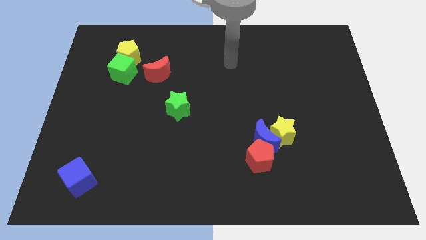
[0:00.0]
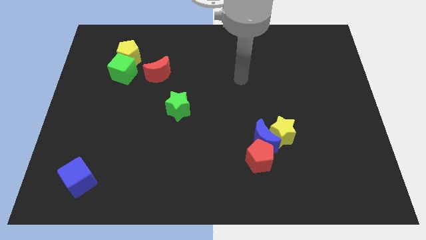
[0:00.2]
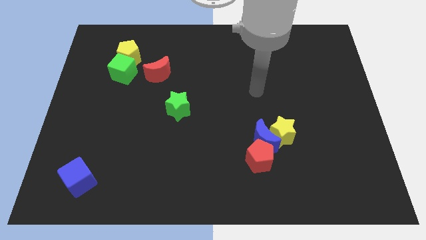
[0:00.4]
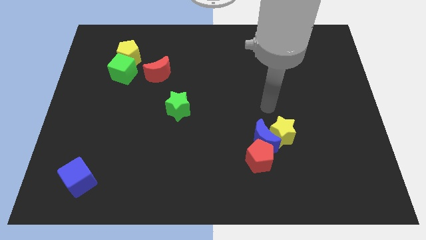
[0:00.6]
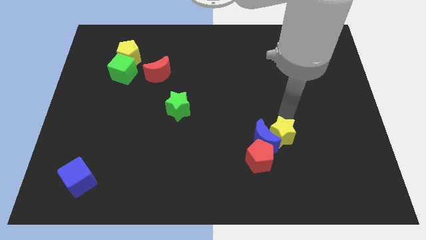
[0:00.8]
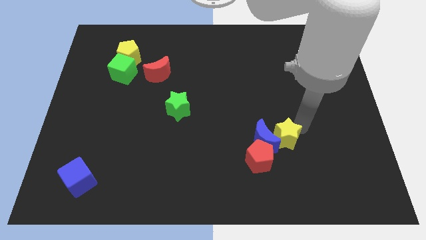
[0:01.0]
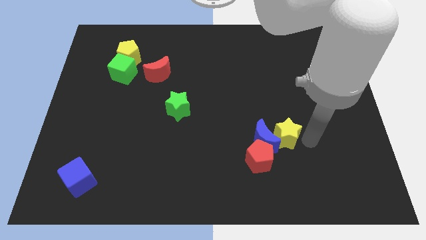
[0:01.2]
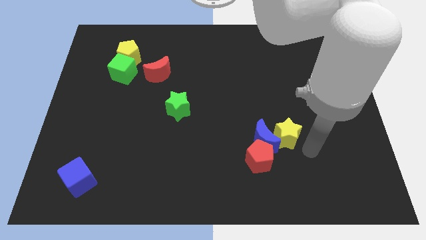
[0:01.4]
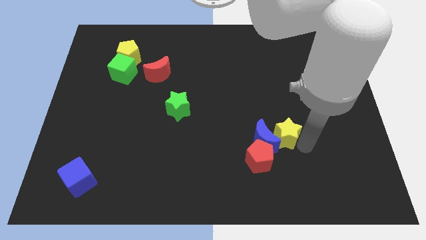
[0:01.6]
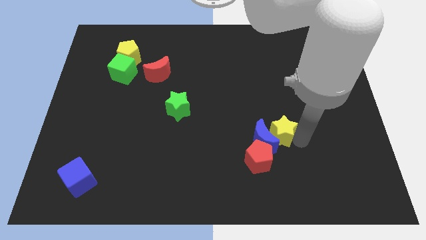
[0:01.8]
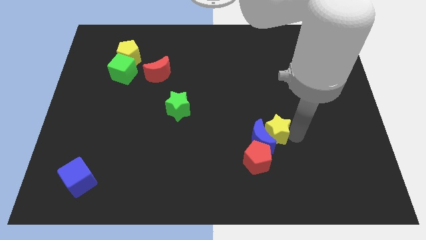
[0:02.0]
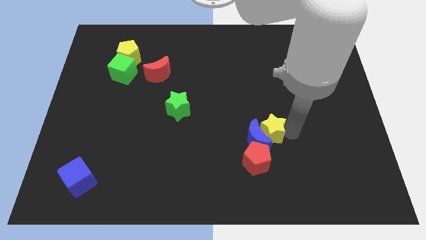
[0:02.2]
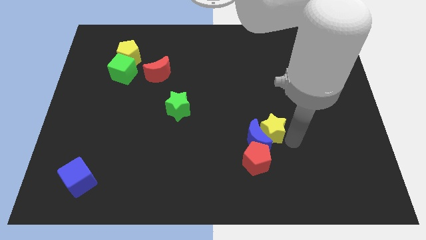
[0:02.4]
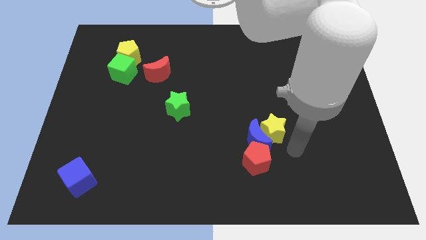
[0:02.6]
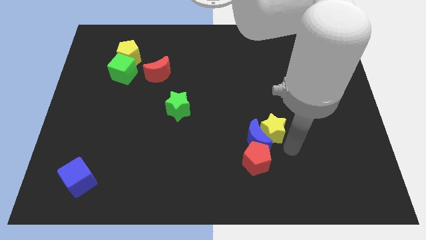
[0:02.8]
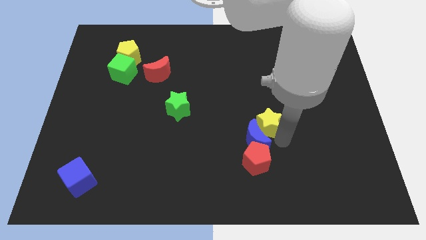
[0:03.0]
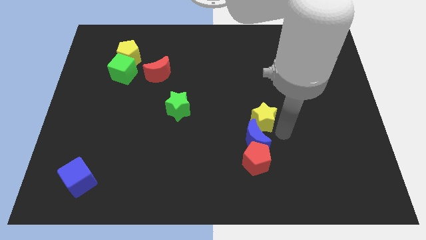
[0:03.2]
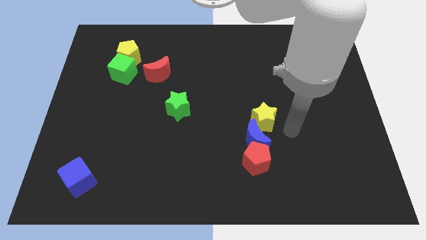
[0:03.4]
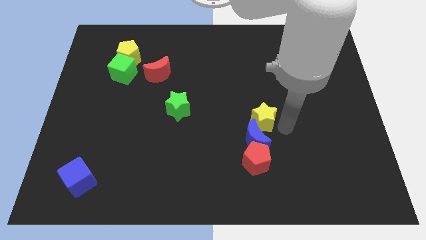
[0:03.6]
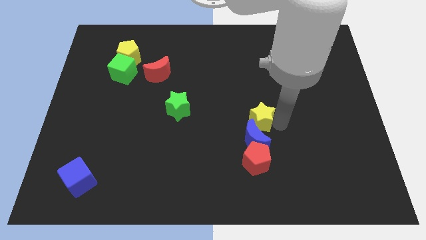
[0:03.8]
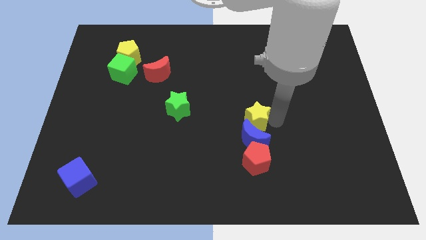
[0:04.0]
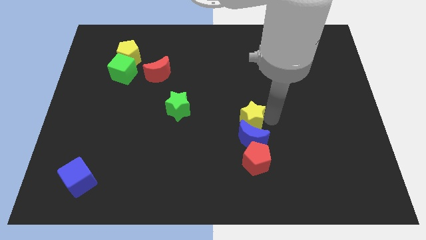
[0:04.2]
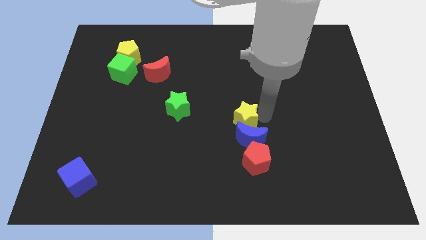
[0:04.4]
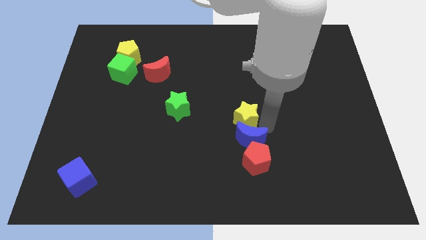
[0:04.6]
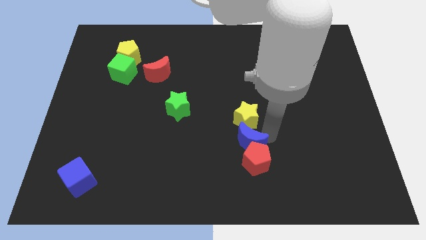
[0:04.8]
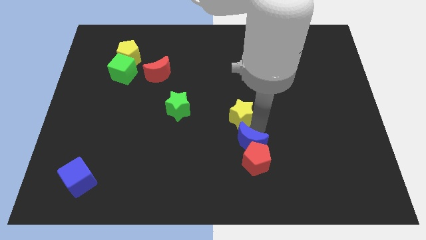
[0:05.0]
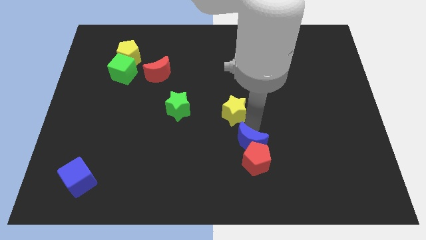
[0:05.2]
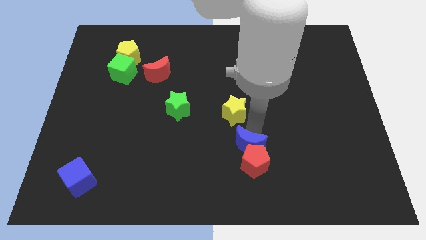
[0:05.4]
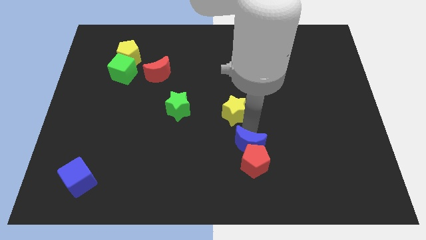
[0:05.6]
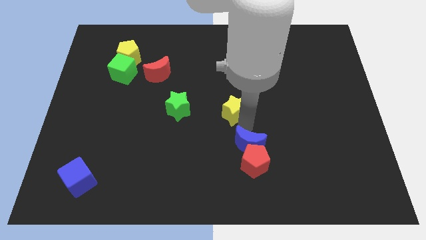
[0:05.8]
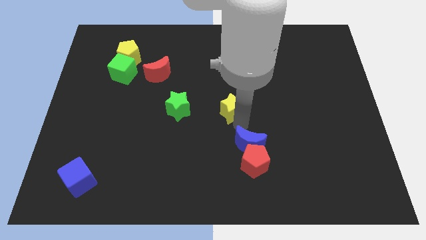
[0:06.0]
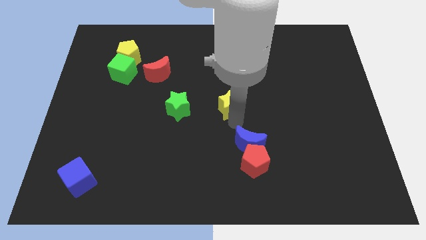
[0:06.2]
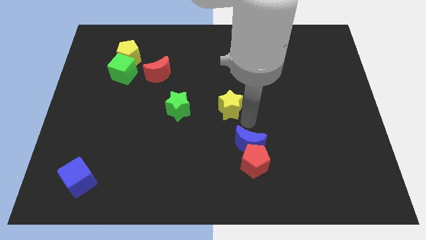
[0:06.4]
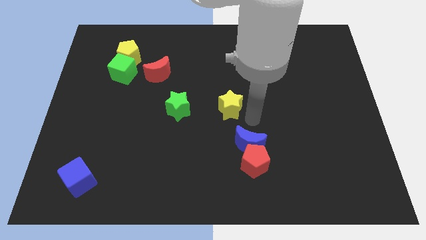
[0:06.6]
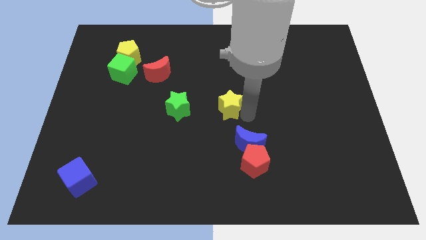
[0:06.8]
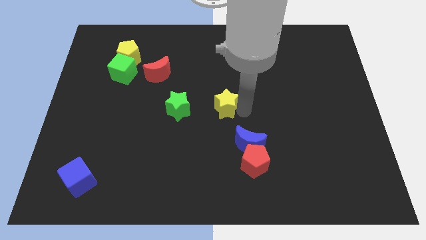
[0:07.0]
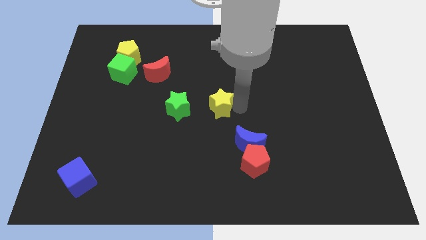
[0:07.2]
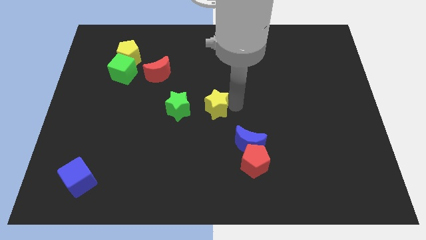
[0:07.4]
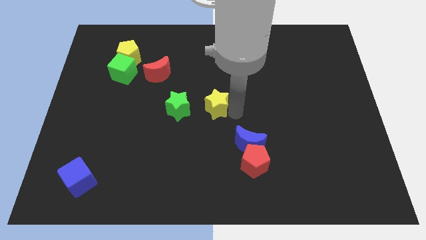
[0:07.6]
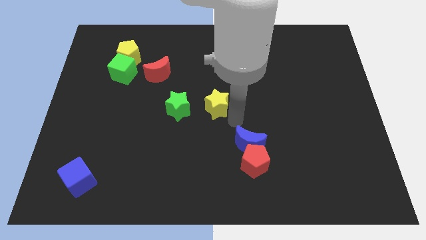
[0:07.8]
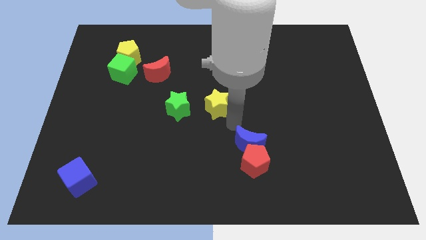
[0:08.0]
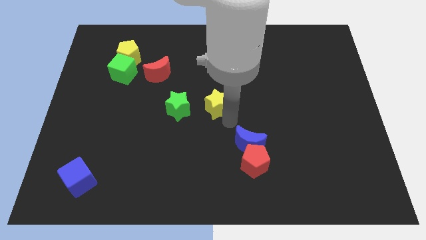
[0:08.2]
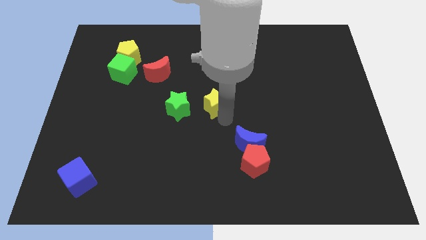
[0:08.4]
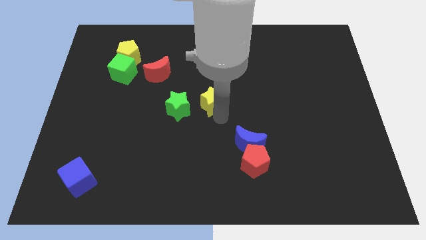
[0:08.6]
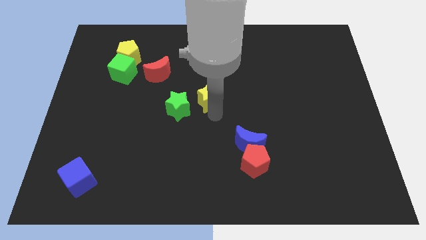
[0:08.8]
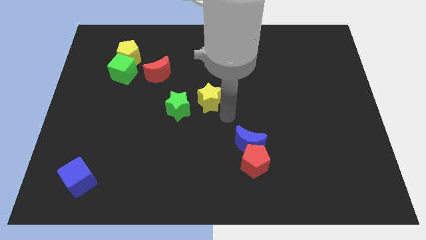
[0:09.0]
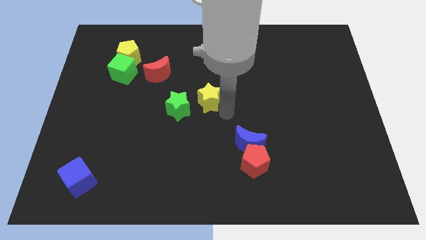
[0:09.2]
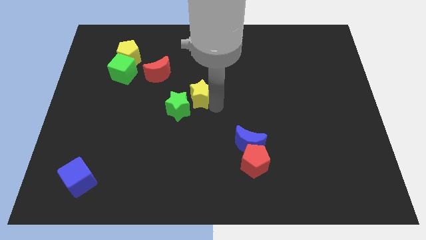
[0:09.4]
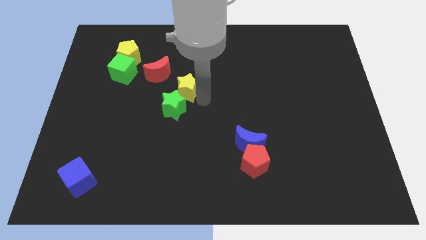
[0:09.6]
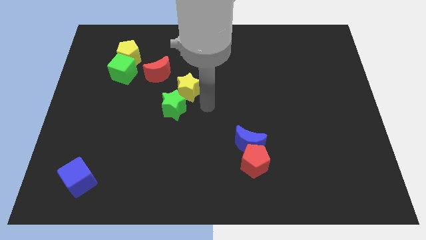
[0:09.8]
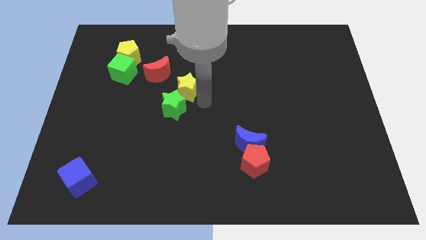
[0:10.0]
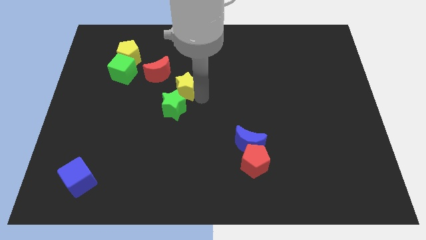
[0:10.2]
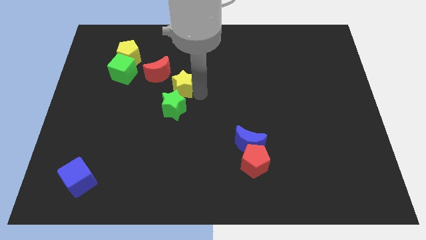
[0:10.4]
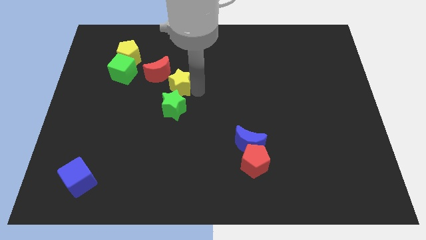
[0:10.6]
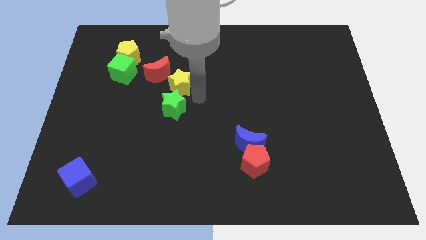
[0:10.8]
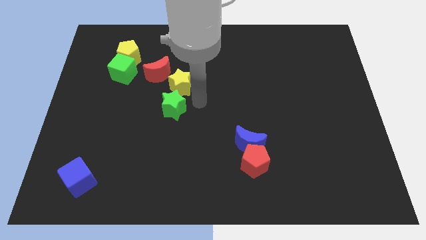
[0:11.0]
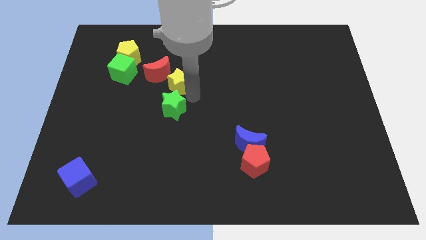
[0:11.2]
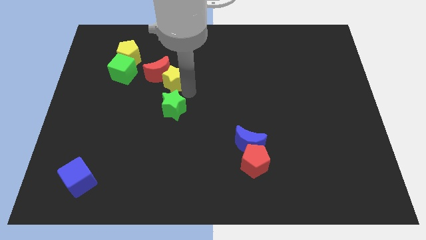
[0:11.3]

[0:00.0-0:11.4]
put the yellow star towards the red moon

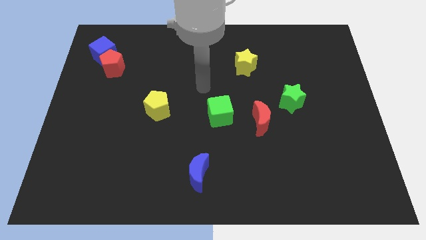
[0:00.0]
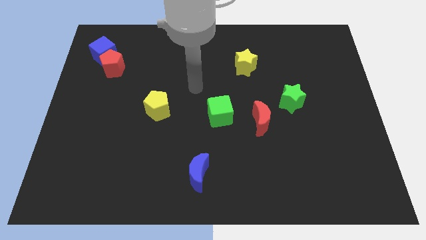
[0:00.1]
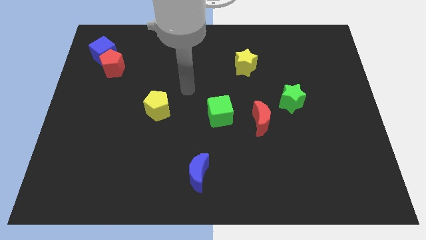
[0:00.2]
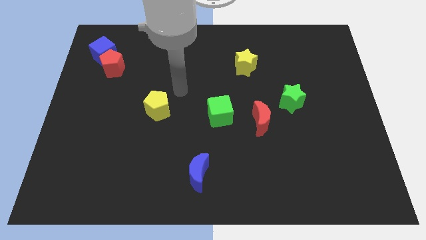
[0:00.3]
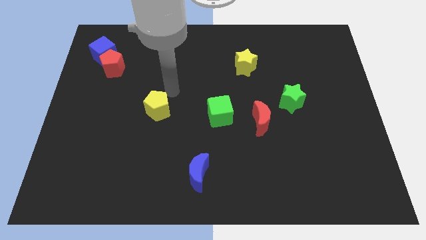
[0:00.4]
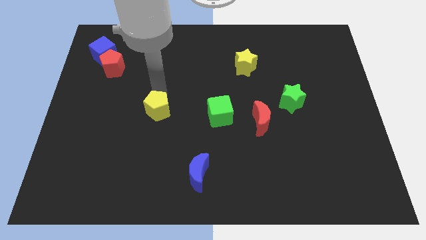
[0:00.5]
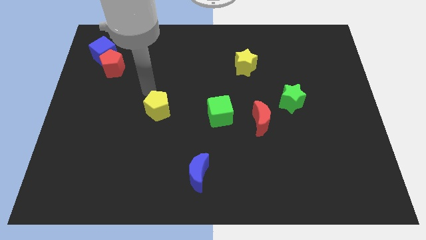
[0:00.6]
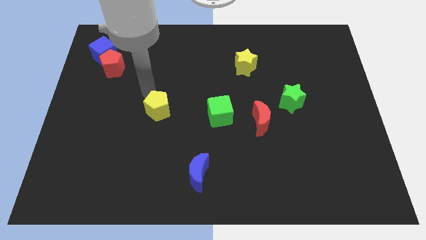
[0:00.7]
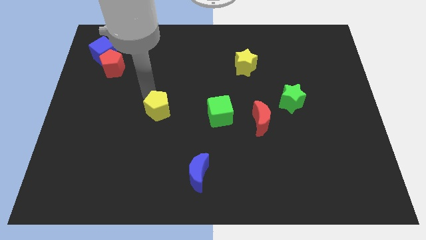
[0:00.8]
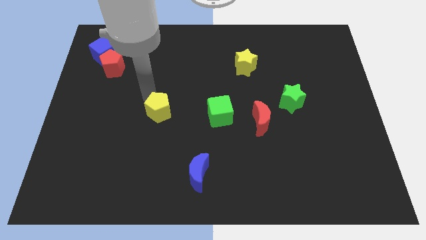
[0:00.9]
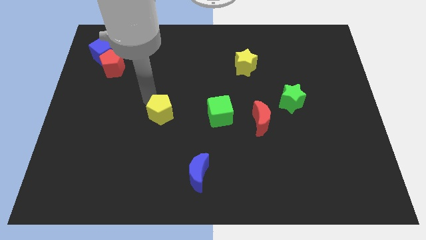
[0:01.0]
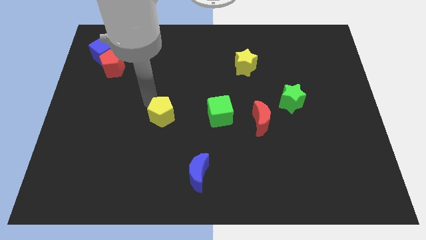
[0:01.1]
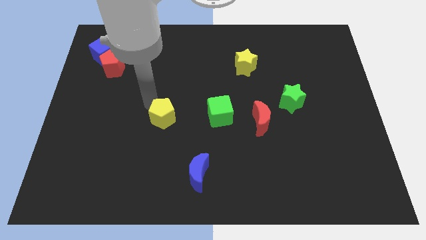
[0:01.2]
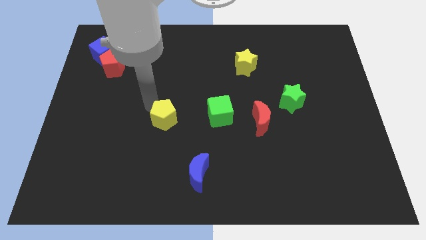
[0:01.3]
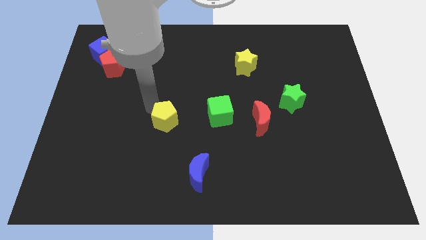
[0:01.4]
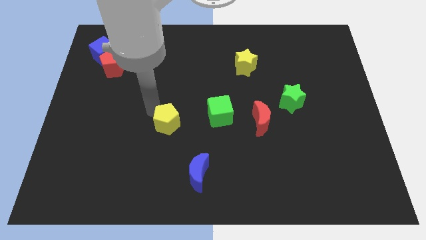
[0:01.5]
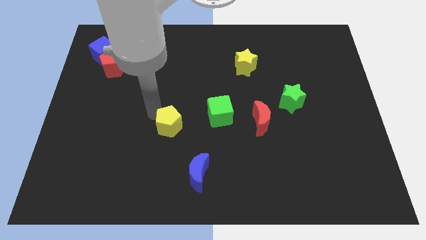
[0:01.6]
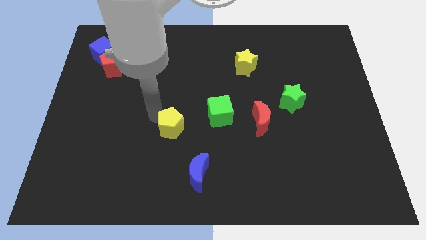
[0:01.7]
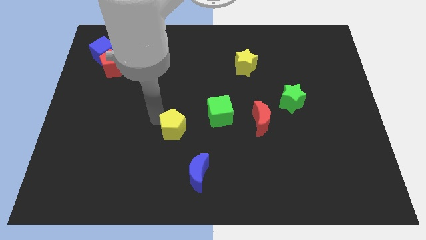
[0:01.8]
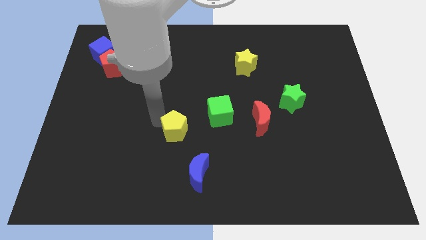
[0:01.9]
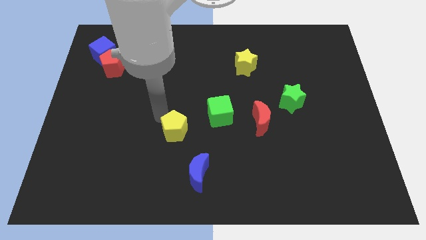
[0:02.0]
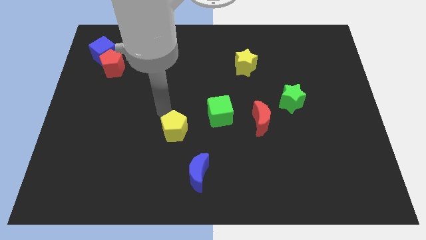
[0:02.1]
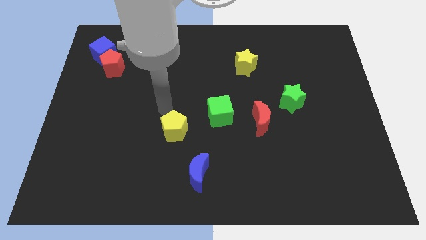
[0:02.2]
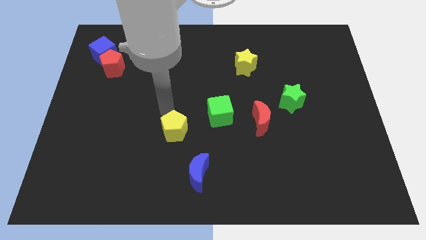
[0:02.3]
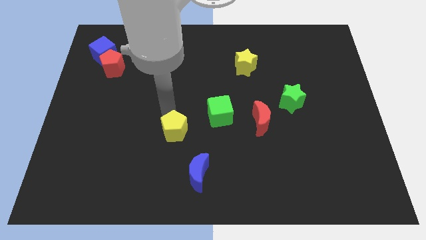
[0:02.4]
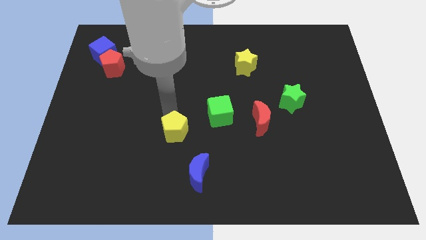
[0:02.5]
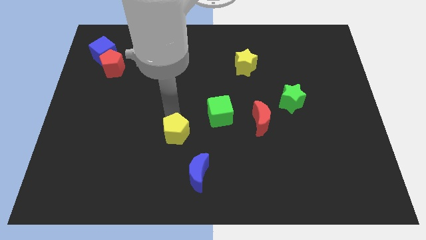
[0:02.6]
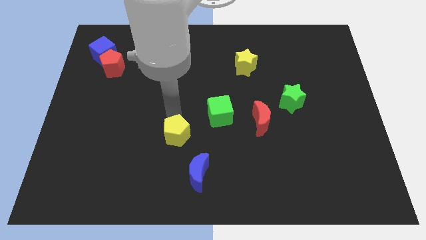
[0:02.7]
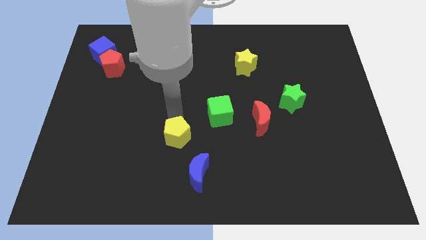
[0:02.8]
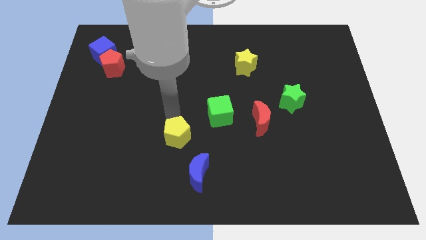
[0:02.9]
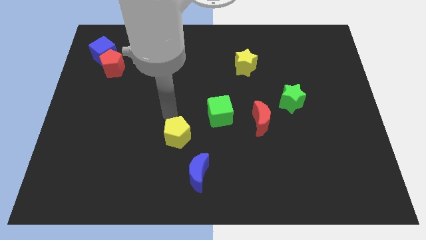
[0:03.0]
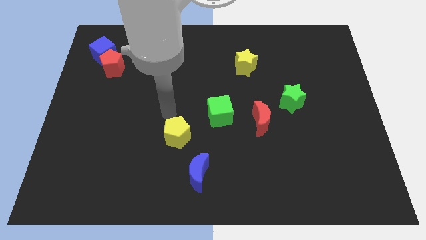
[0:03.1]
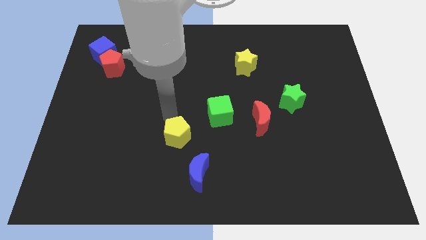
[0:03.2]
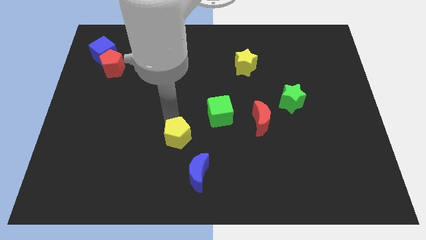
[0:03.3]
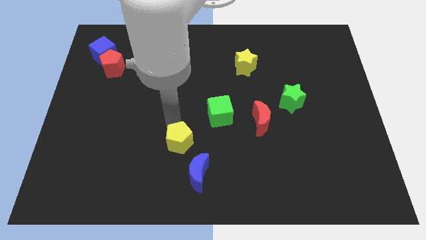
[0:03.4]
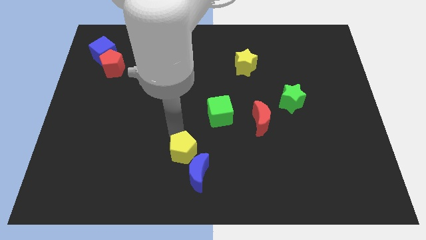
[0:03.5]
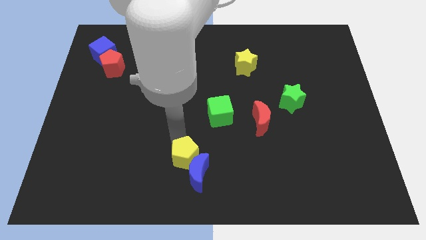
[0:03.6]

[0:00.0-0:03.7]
move the yellow pentagon close to the blue moon
